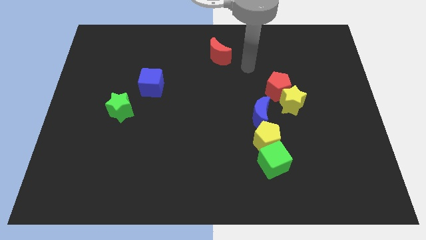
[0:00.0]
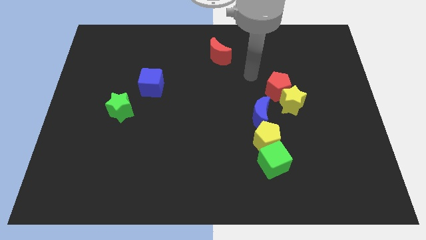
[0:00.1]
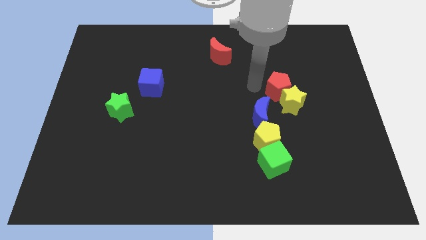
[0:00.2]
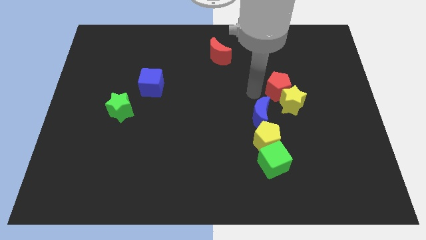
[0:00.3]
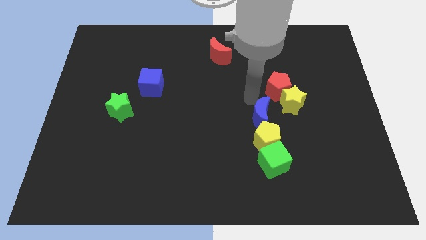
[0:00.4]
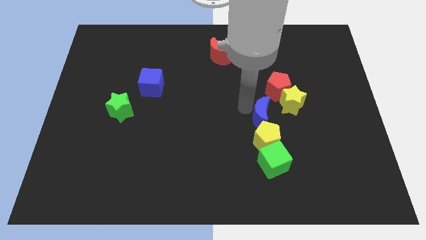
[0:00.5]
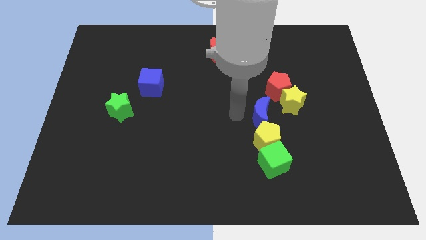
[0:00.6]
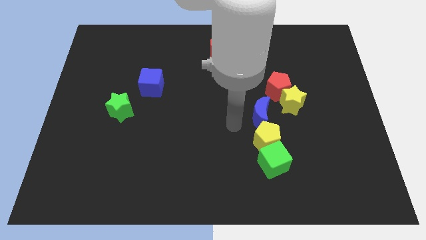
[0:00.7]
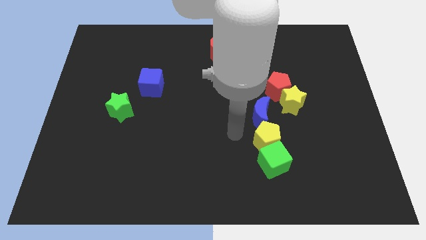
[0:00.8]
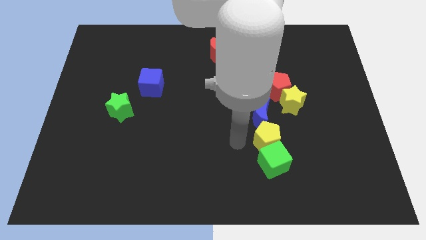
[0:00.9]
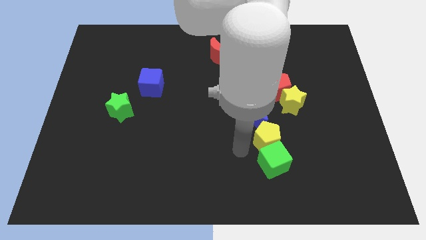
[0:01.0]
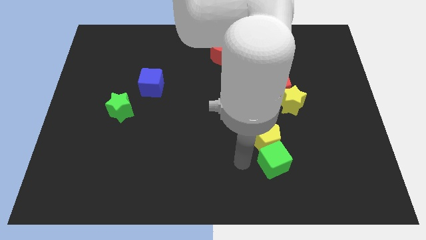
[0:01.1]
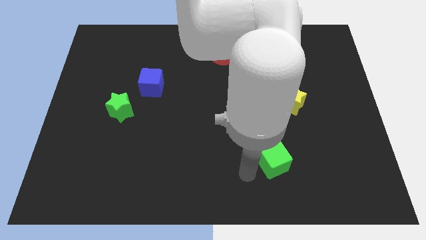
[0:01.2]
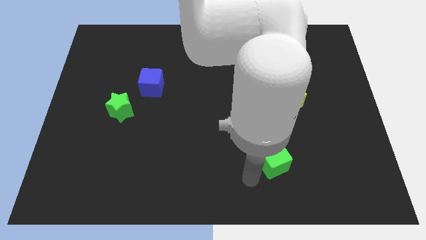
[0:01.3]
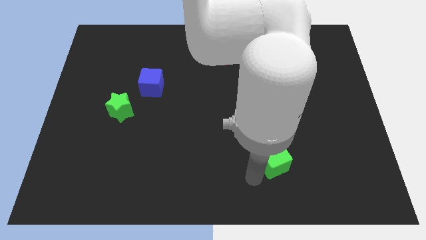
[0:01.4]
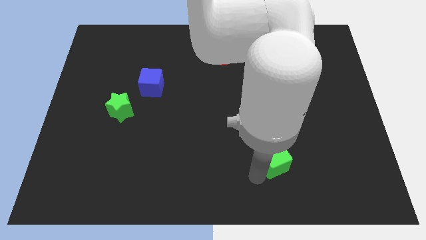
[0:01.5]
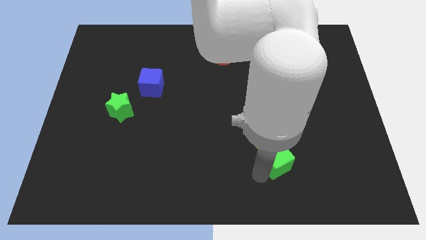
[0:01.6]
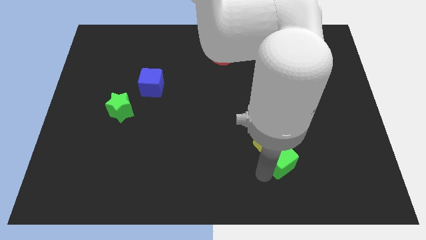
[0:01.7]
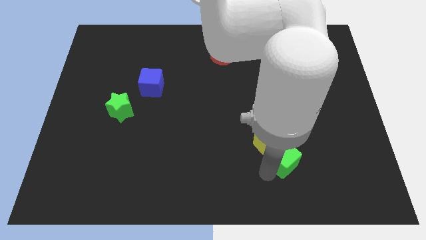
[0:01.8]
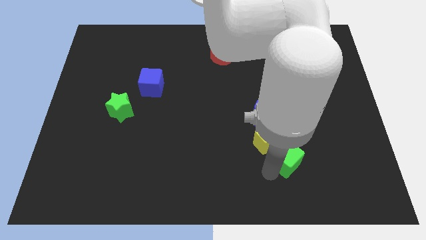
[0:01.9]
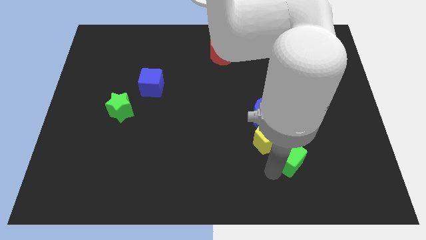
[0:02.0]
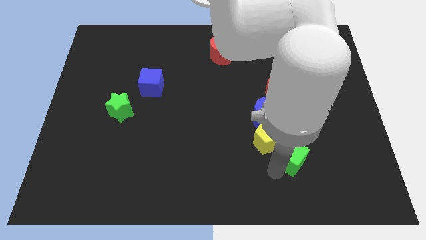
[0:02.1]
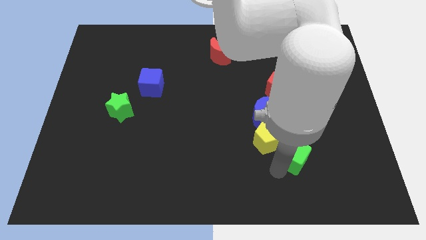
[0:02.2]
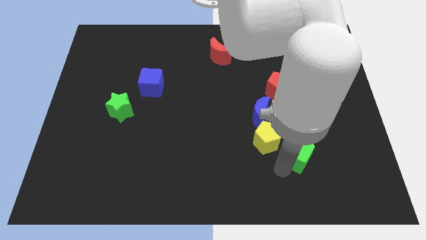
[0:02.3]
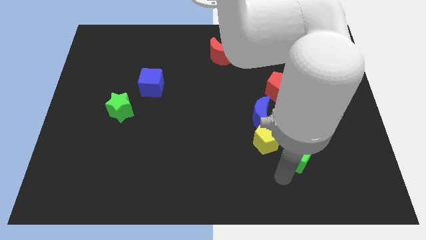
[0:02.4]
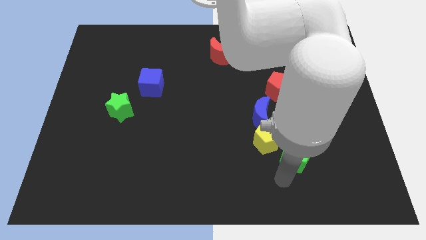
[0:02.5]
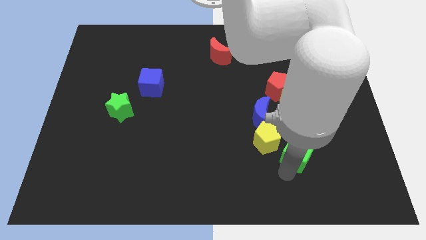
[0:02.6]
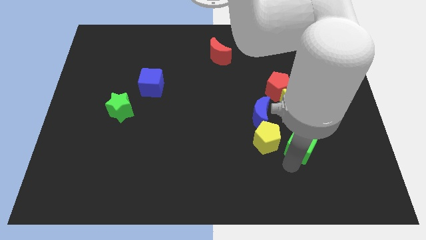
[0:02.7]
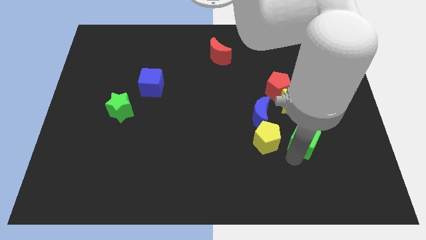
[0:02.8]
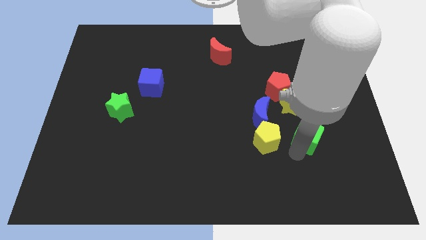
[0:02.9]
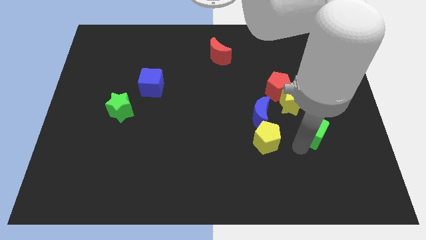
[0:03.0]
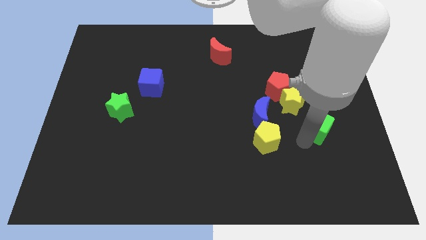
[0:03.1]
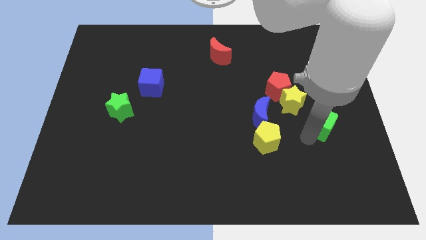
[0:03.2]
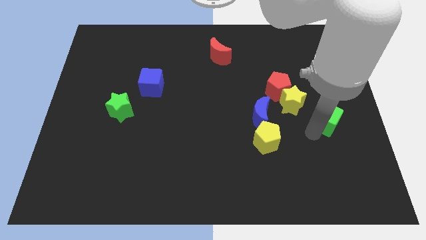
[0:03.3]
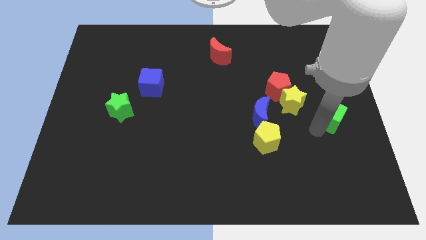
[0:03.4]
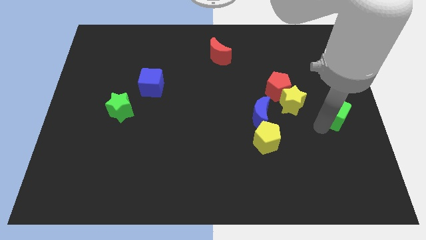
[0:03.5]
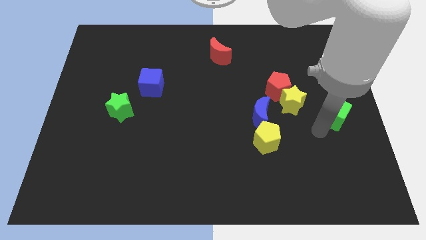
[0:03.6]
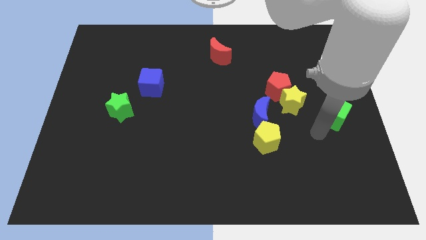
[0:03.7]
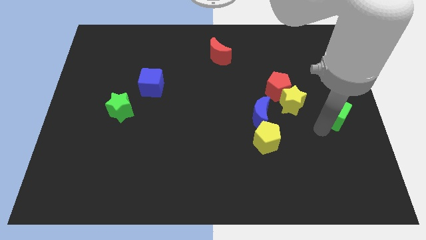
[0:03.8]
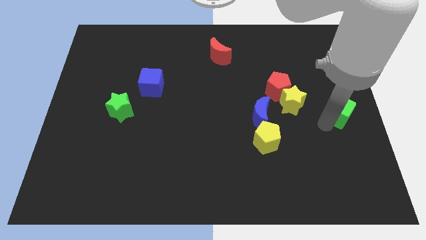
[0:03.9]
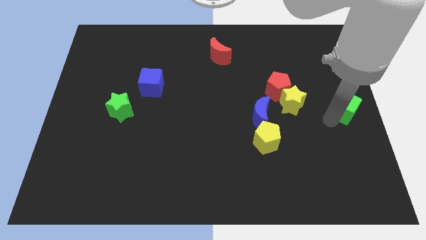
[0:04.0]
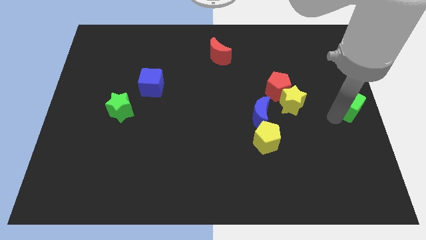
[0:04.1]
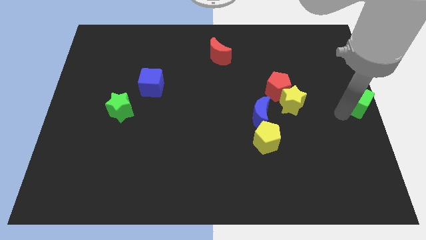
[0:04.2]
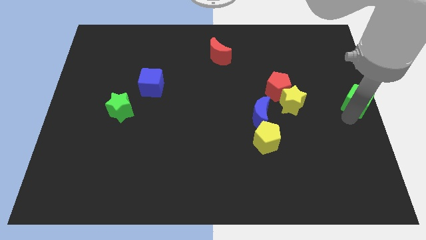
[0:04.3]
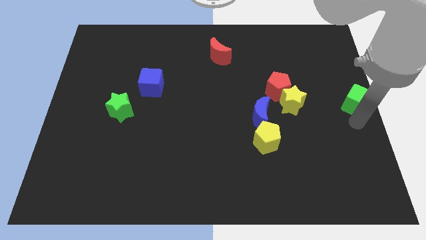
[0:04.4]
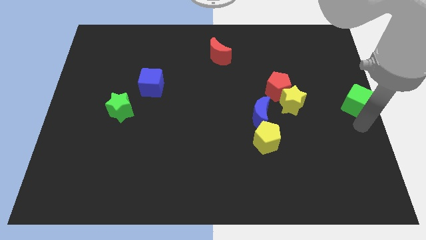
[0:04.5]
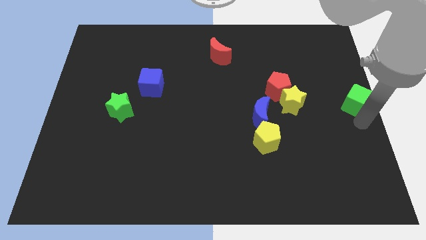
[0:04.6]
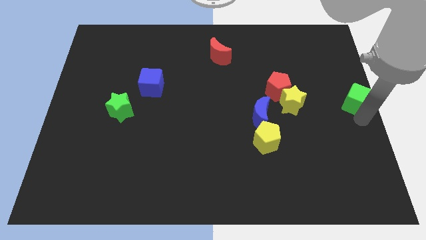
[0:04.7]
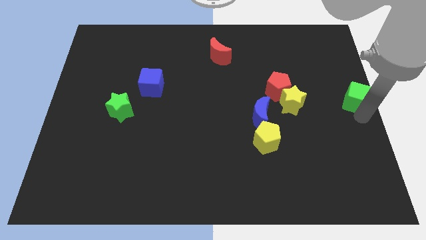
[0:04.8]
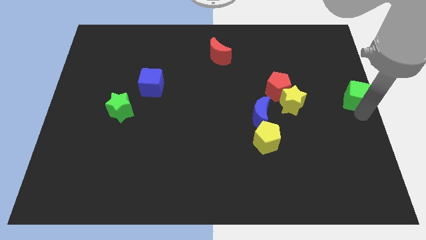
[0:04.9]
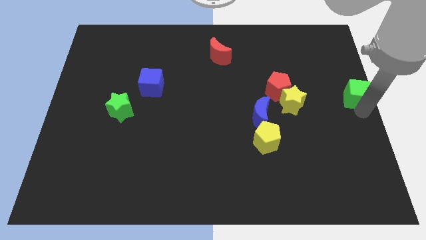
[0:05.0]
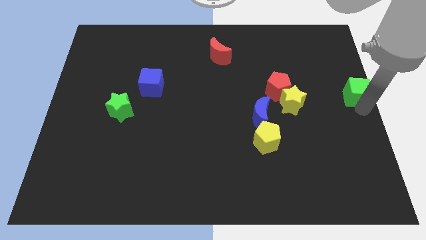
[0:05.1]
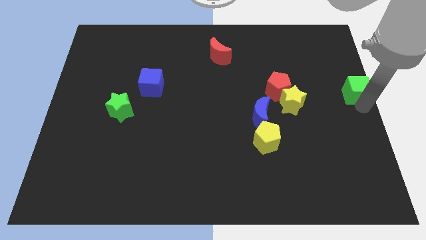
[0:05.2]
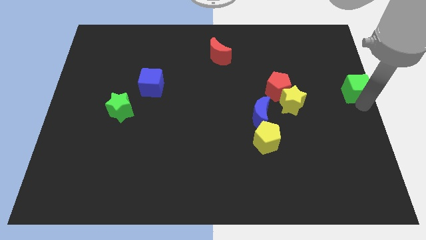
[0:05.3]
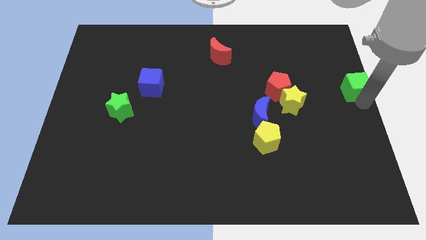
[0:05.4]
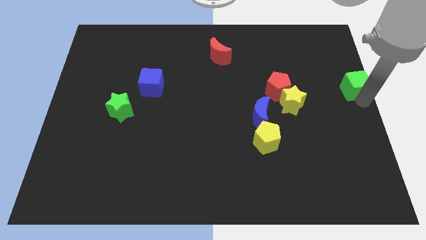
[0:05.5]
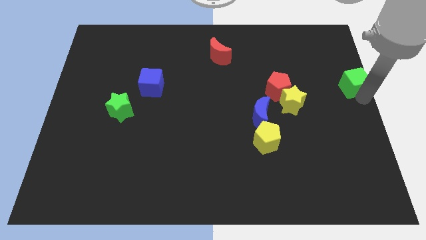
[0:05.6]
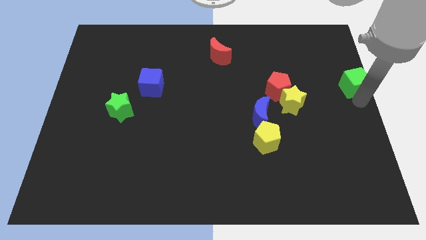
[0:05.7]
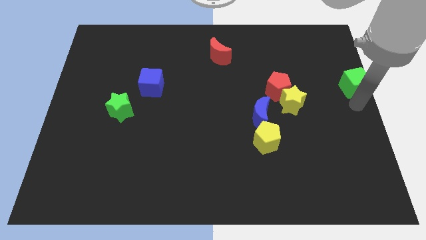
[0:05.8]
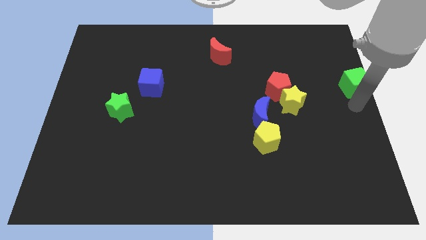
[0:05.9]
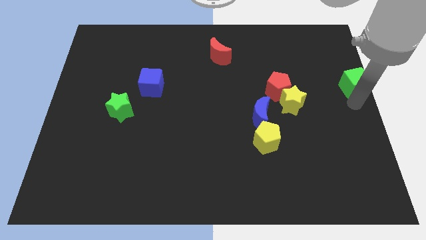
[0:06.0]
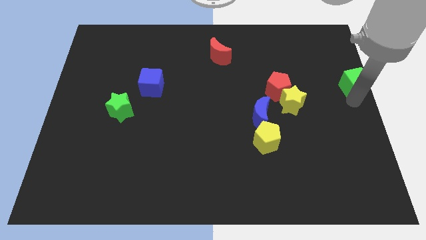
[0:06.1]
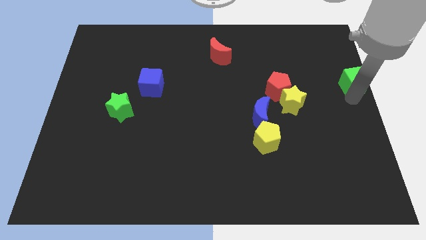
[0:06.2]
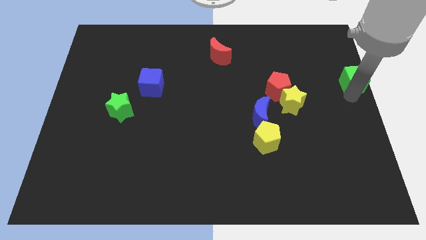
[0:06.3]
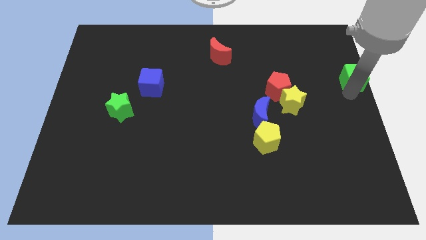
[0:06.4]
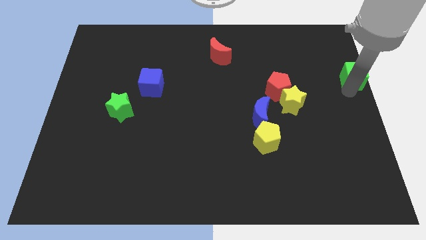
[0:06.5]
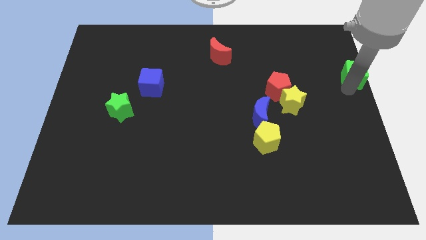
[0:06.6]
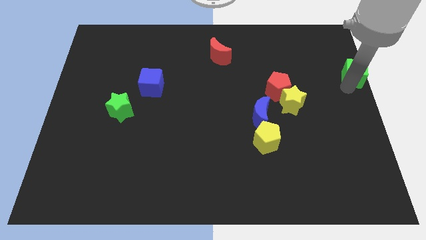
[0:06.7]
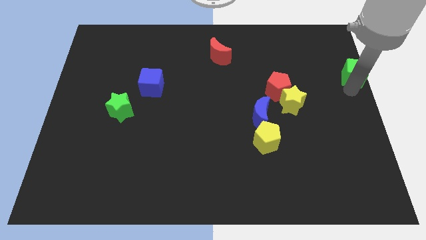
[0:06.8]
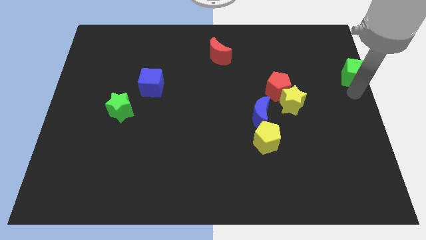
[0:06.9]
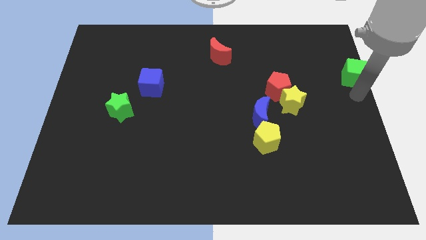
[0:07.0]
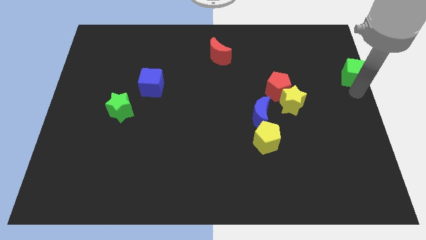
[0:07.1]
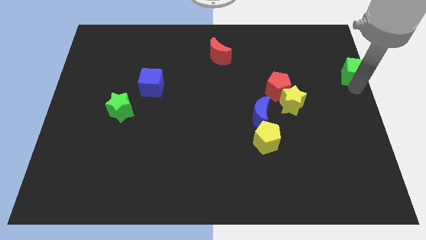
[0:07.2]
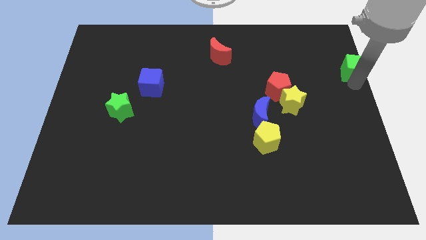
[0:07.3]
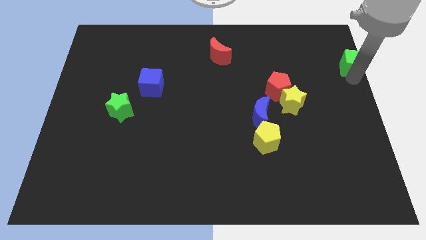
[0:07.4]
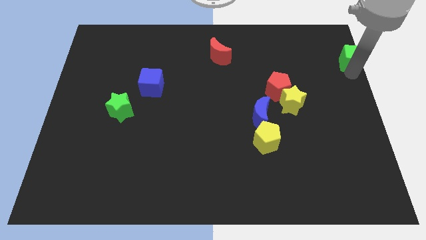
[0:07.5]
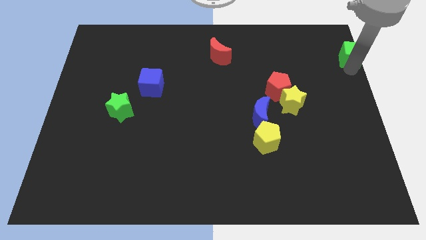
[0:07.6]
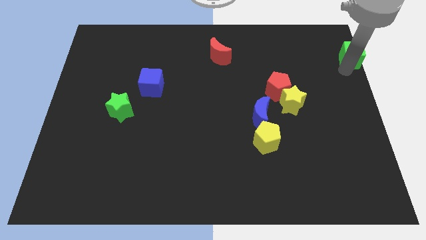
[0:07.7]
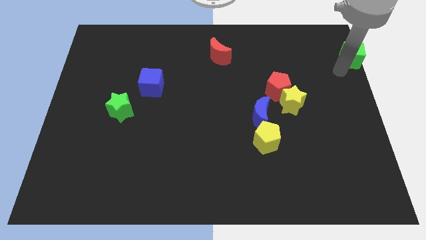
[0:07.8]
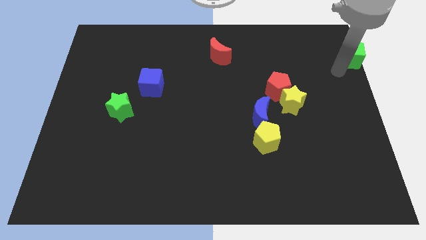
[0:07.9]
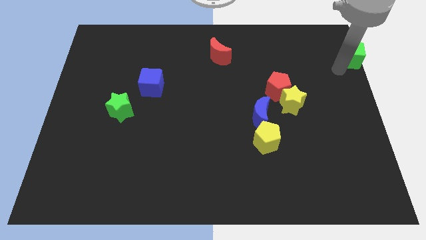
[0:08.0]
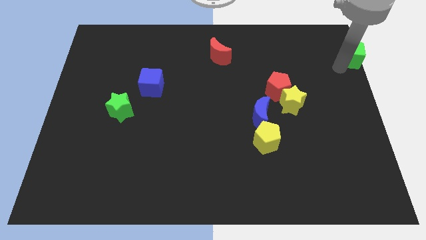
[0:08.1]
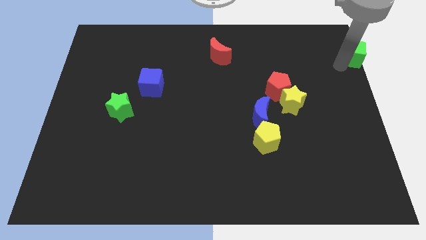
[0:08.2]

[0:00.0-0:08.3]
move the green cube to the upper right corner
